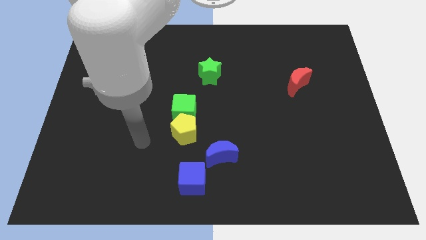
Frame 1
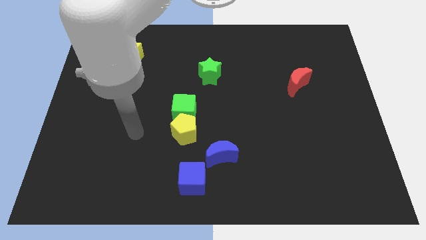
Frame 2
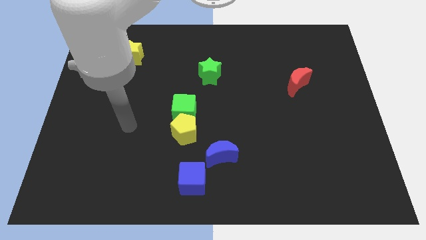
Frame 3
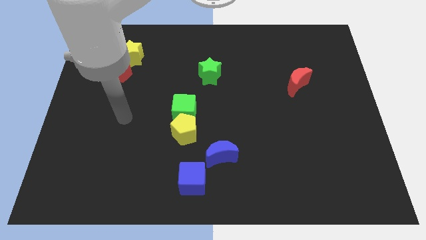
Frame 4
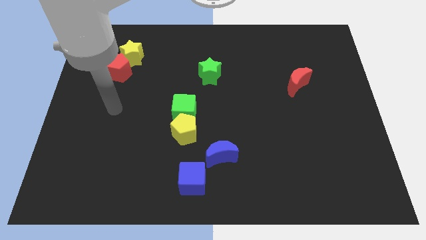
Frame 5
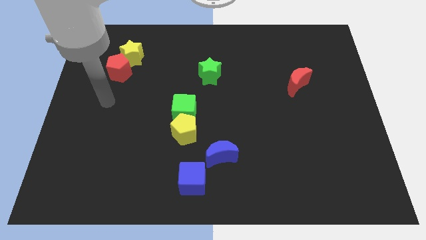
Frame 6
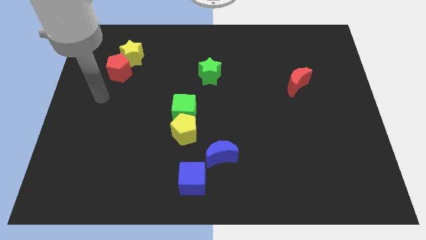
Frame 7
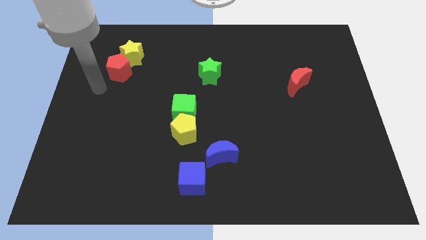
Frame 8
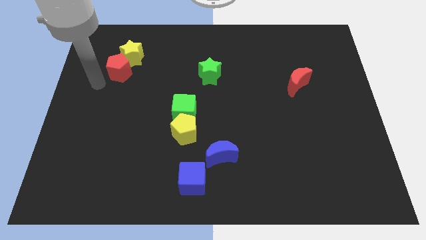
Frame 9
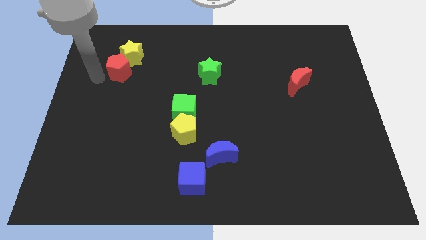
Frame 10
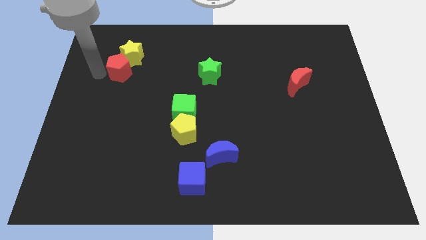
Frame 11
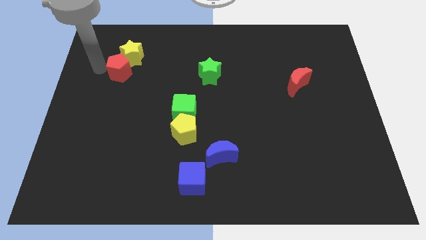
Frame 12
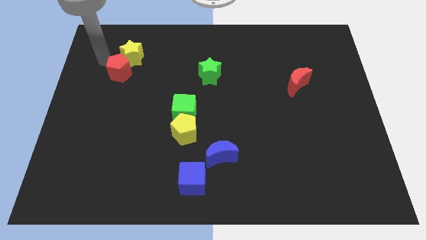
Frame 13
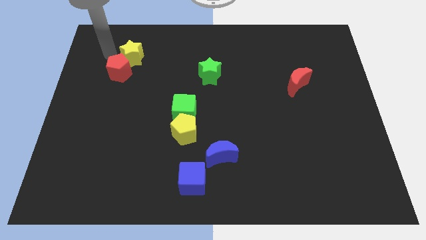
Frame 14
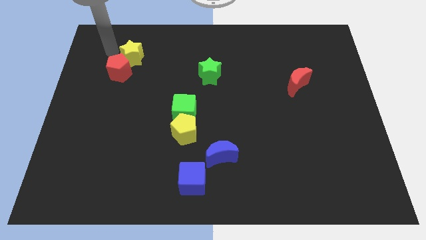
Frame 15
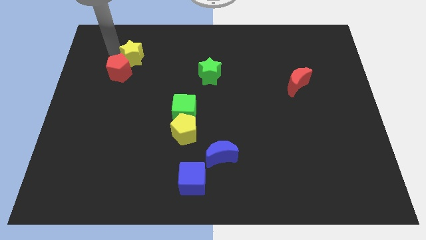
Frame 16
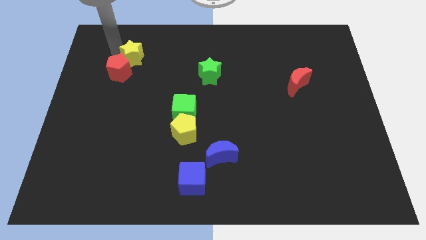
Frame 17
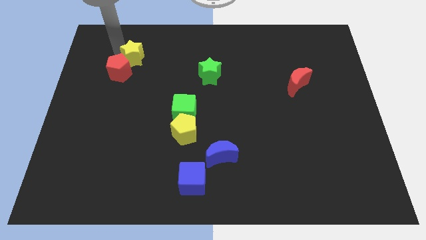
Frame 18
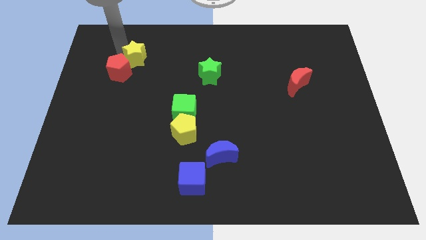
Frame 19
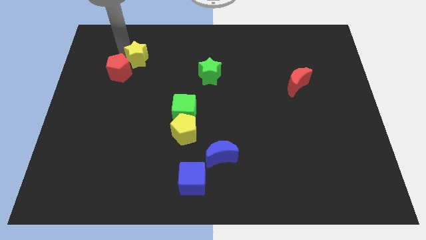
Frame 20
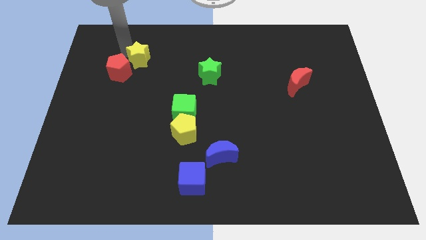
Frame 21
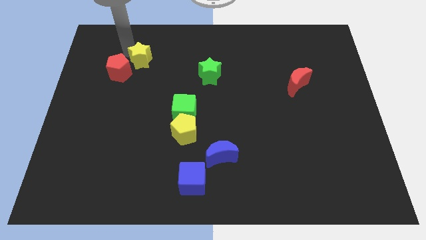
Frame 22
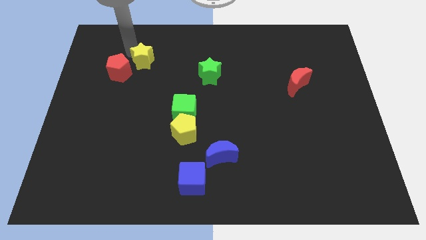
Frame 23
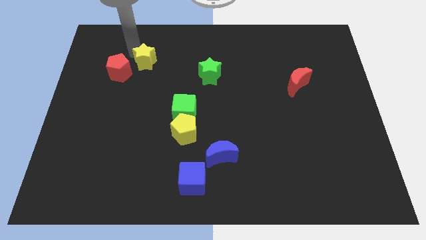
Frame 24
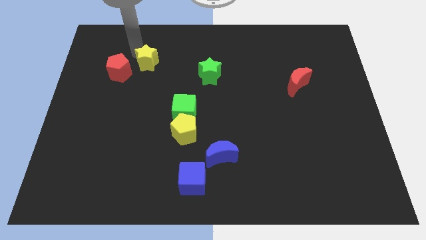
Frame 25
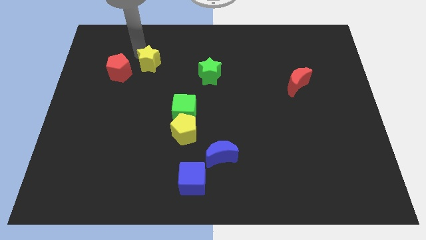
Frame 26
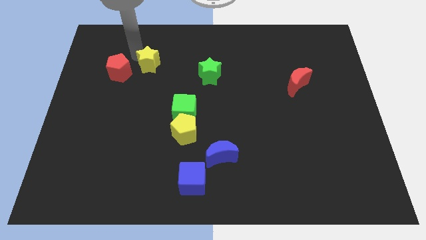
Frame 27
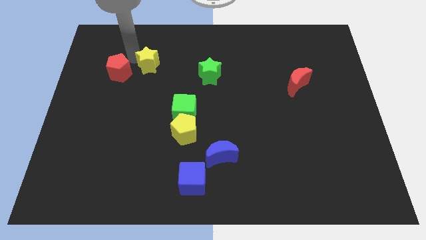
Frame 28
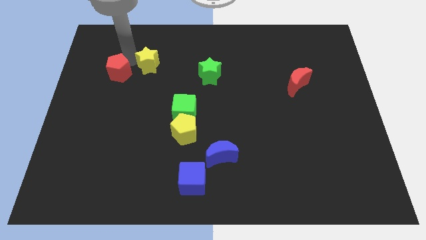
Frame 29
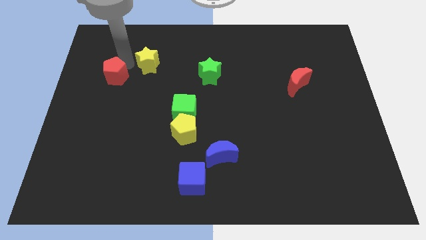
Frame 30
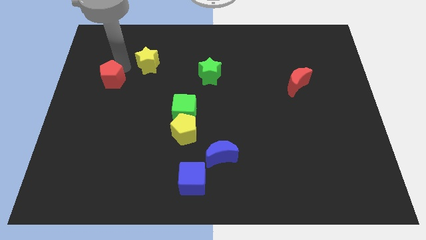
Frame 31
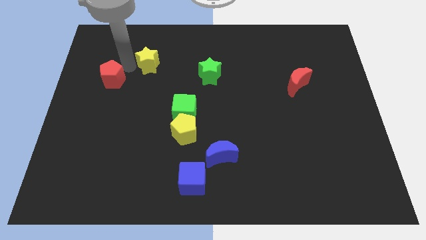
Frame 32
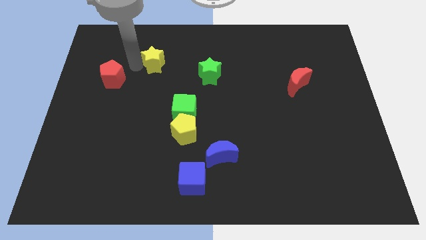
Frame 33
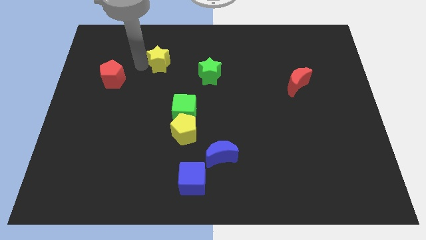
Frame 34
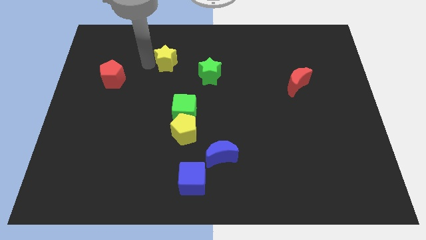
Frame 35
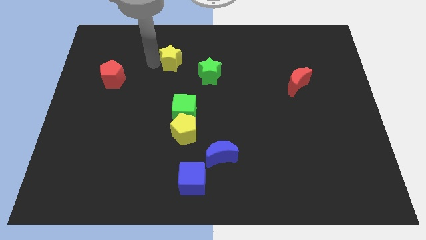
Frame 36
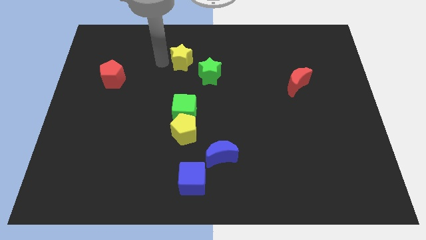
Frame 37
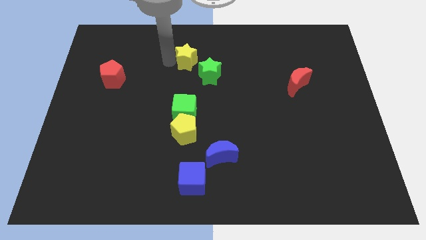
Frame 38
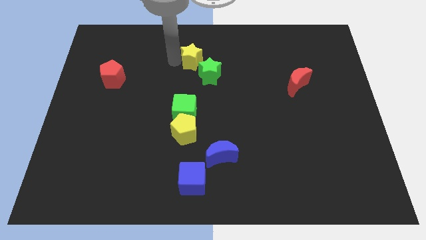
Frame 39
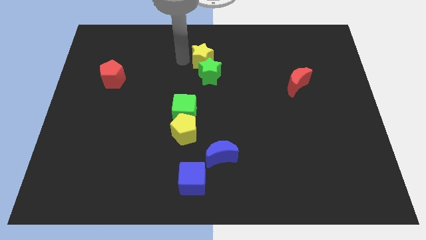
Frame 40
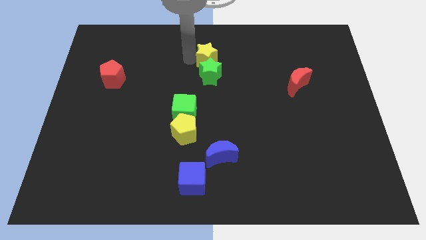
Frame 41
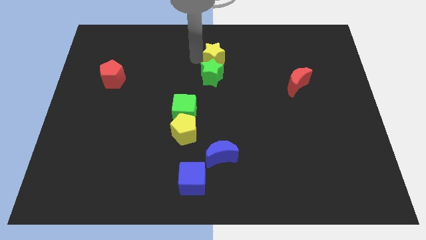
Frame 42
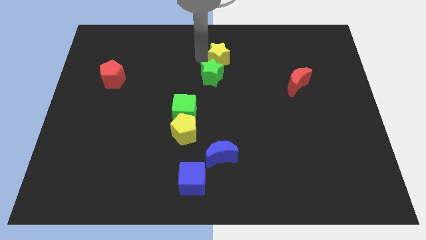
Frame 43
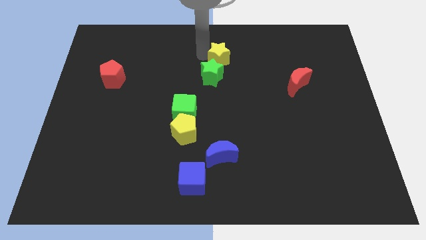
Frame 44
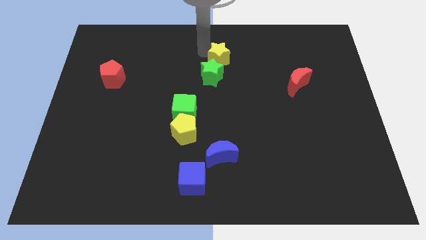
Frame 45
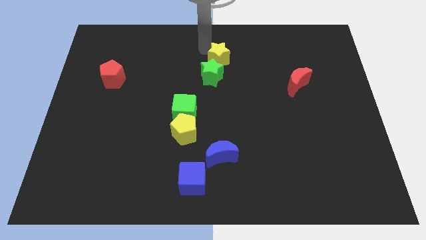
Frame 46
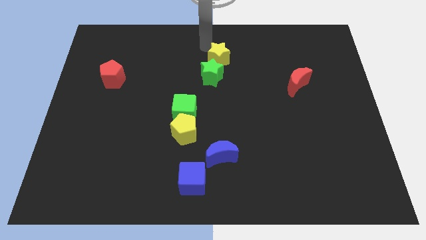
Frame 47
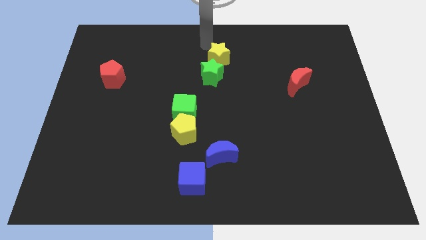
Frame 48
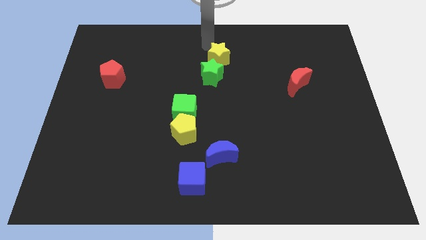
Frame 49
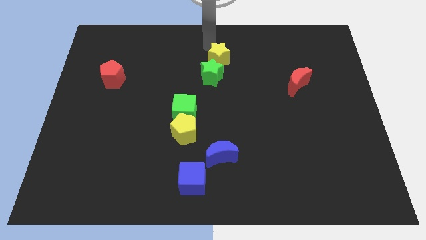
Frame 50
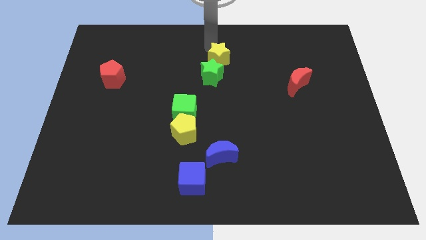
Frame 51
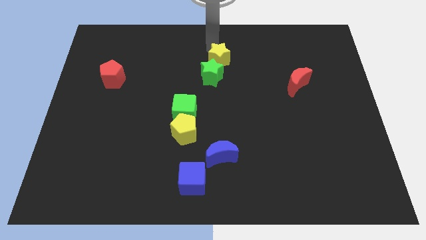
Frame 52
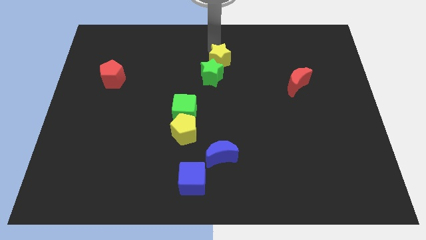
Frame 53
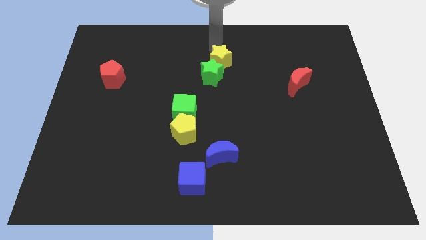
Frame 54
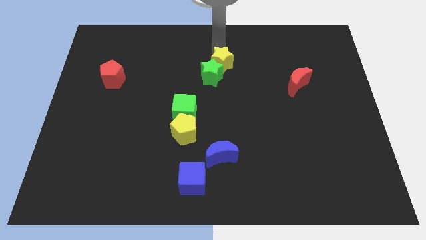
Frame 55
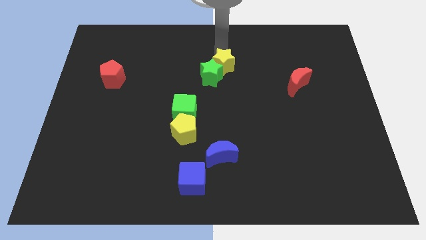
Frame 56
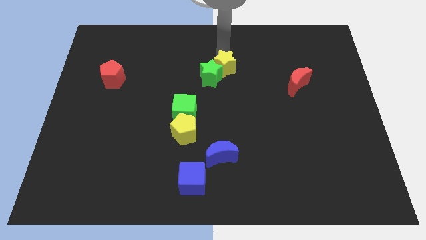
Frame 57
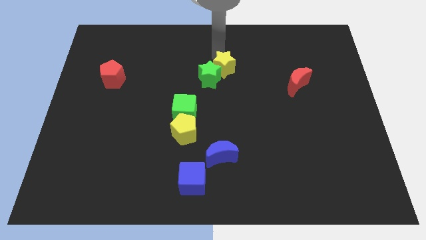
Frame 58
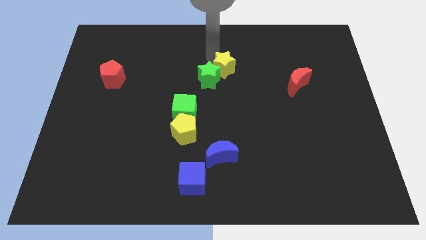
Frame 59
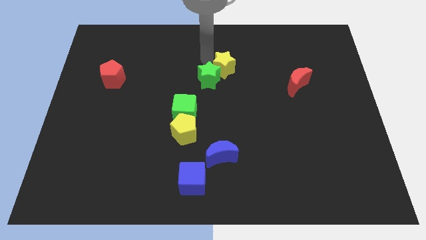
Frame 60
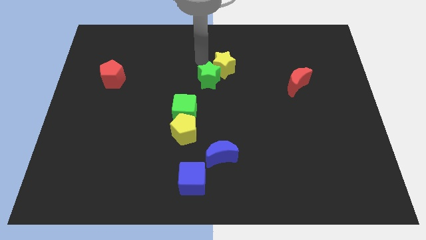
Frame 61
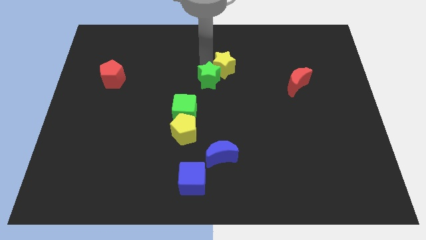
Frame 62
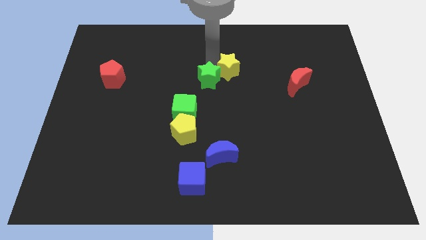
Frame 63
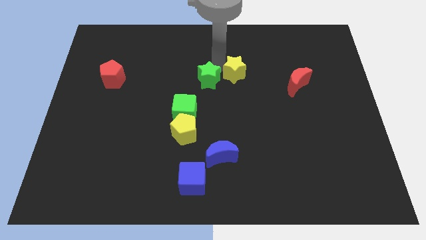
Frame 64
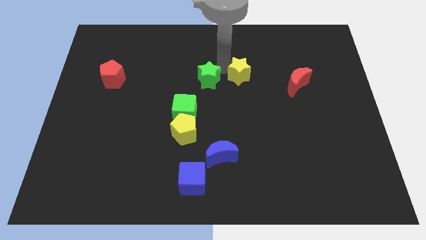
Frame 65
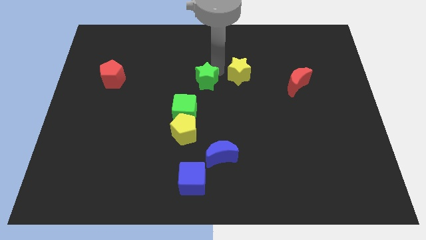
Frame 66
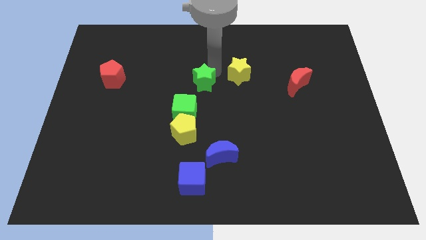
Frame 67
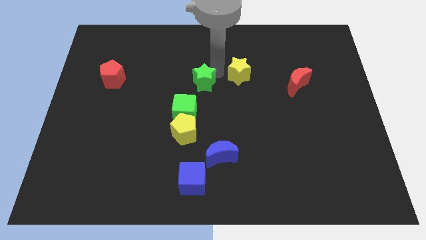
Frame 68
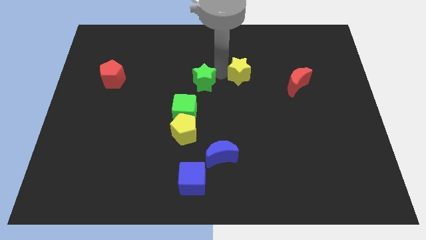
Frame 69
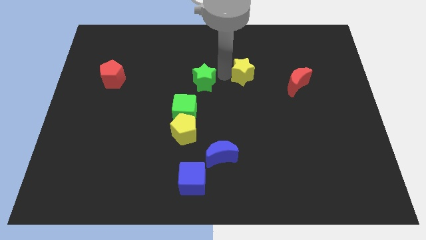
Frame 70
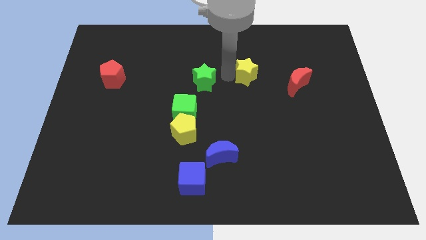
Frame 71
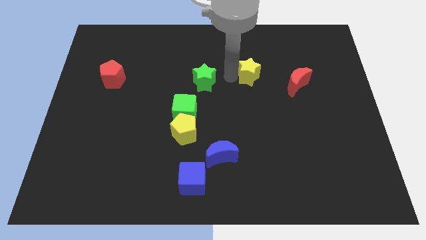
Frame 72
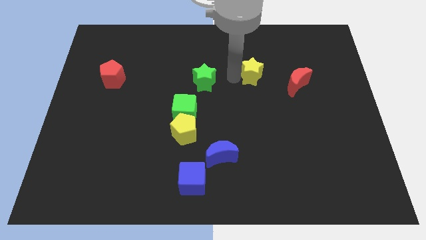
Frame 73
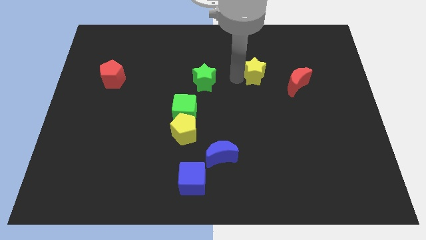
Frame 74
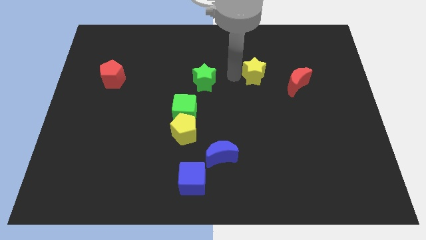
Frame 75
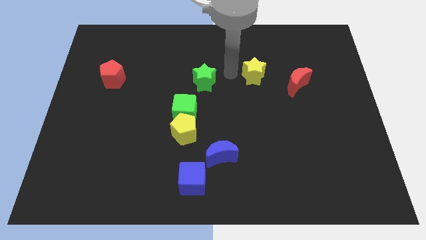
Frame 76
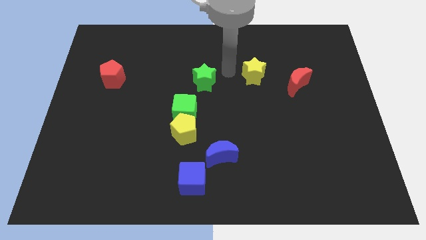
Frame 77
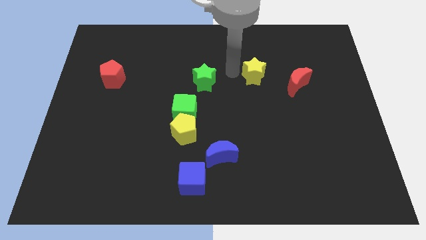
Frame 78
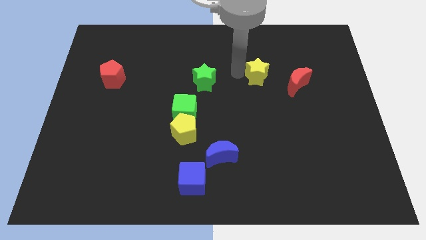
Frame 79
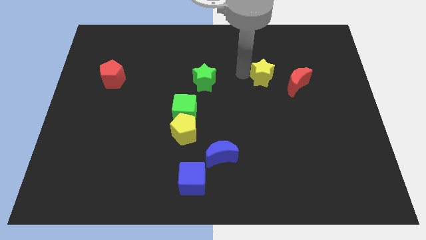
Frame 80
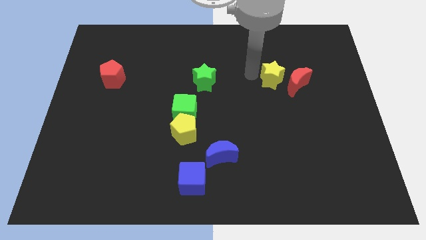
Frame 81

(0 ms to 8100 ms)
slide the yellow star next to the red moon
